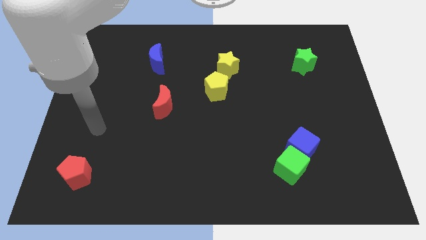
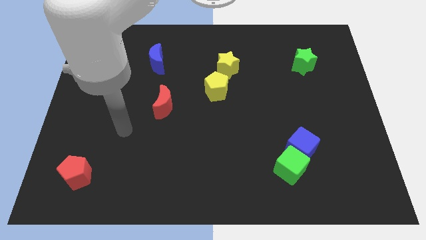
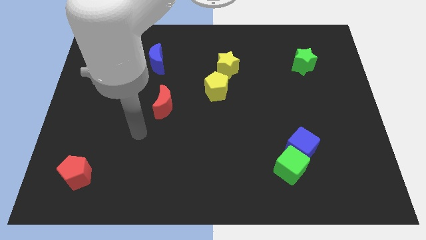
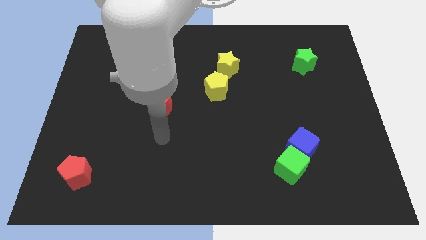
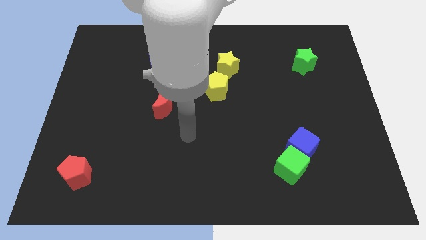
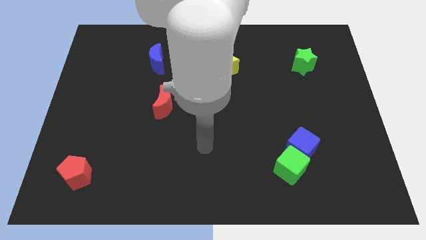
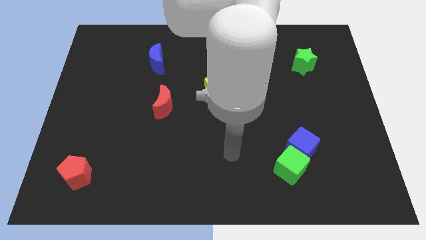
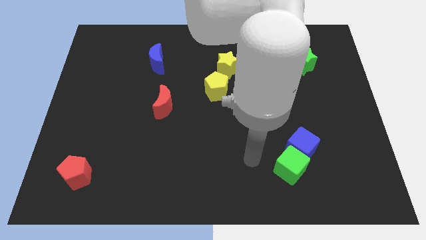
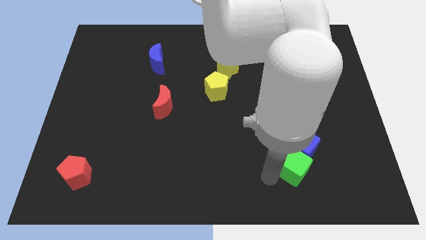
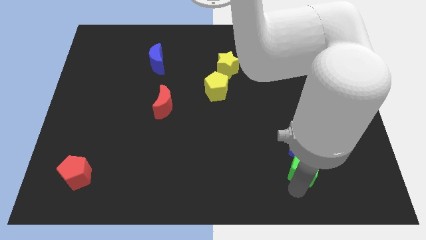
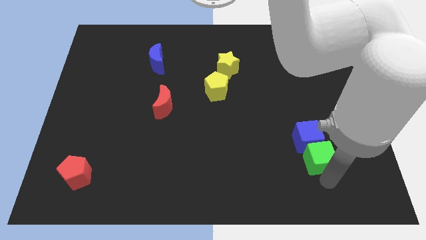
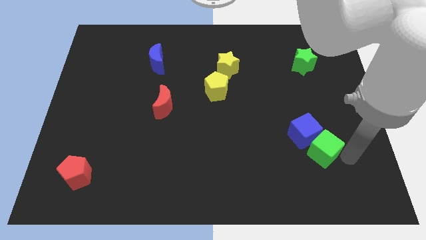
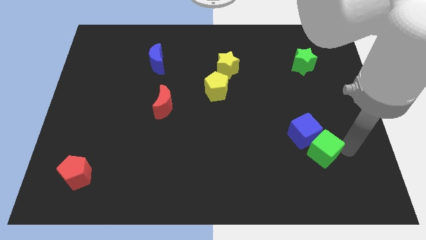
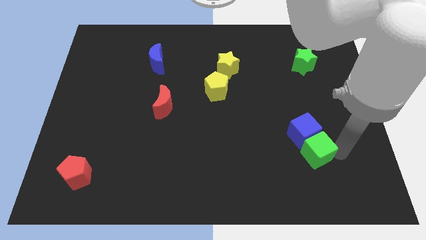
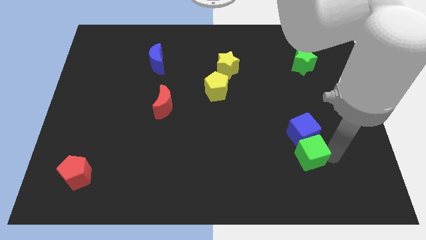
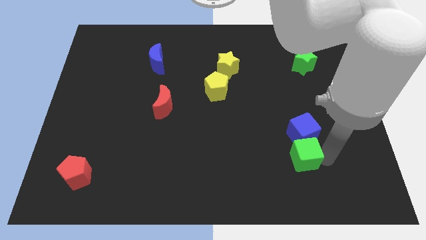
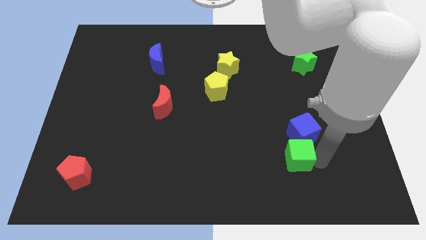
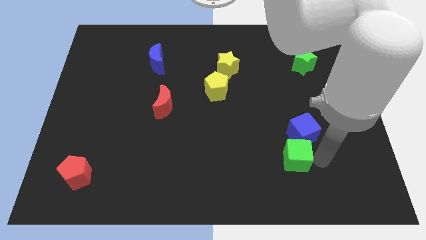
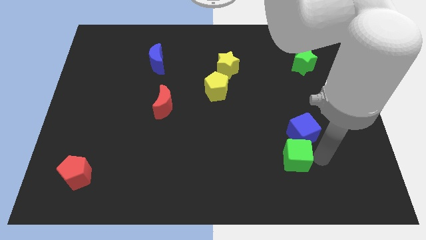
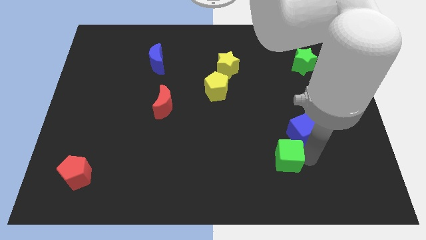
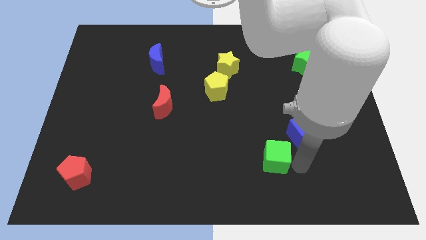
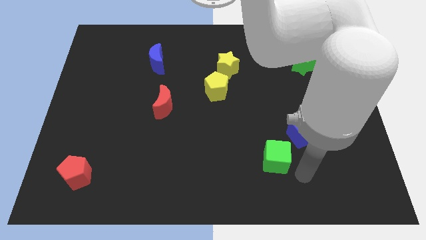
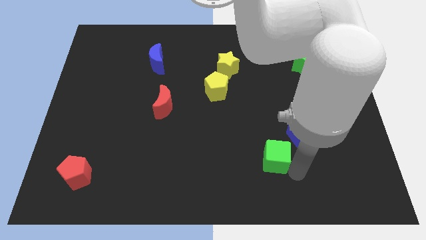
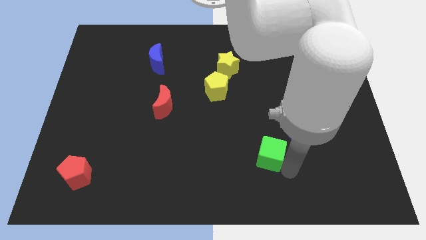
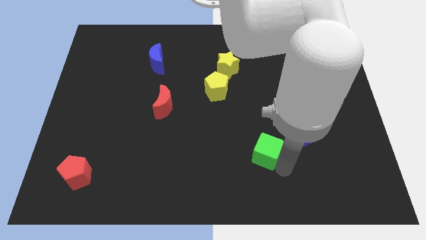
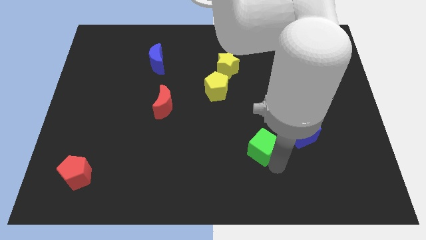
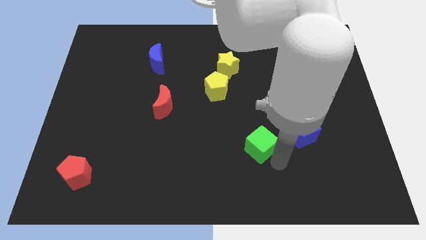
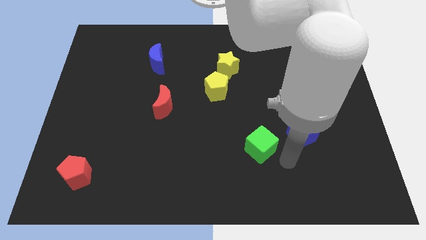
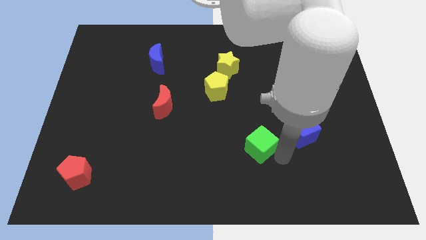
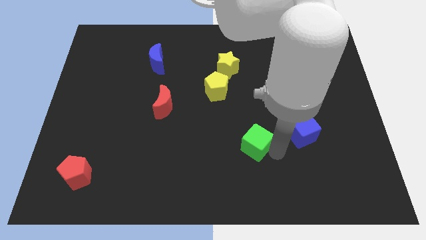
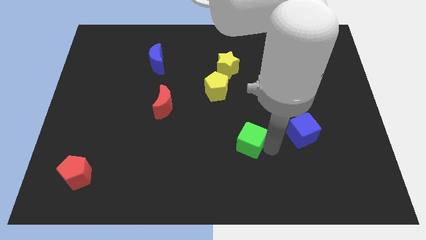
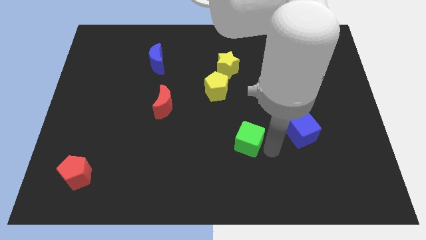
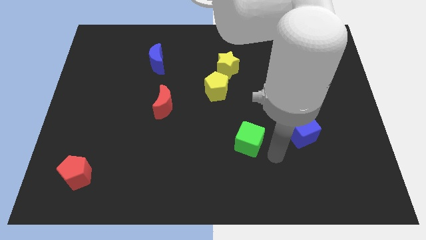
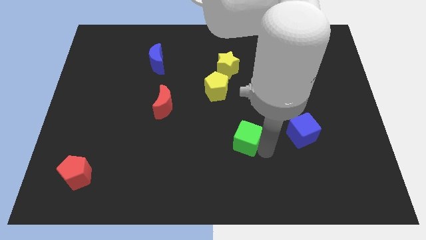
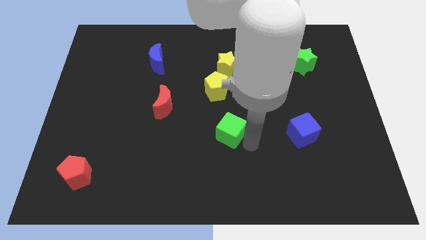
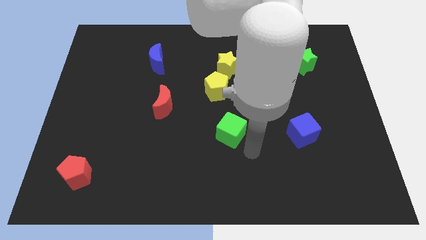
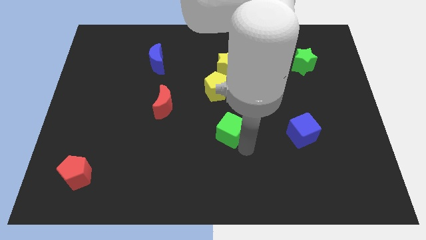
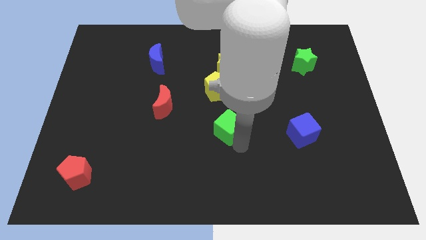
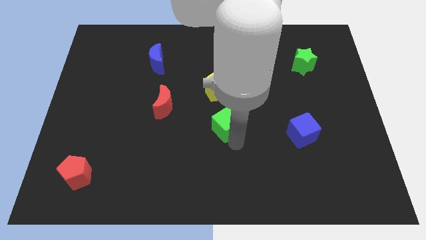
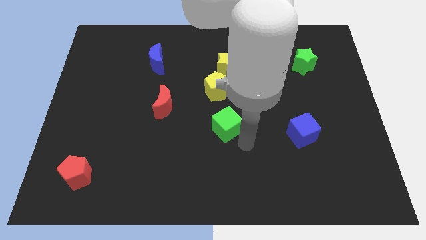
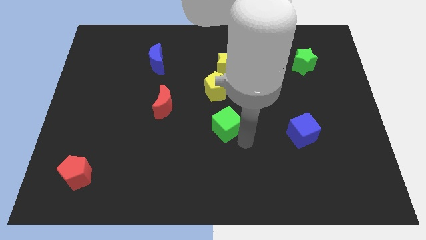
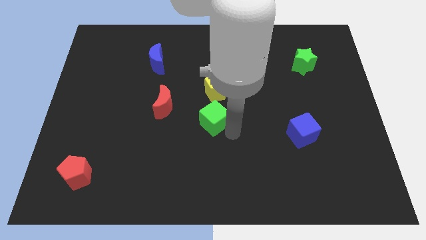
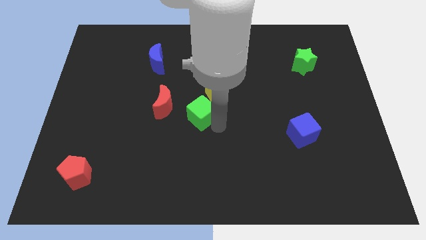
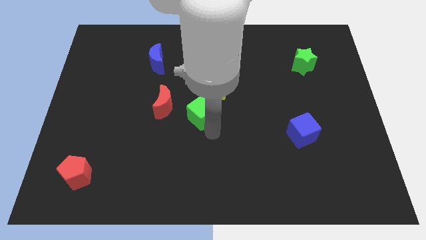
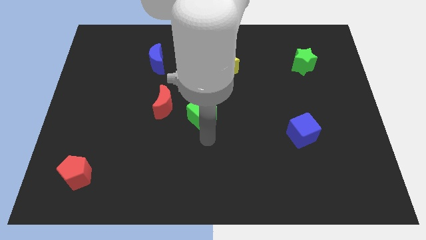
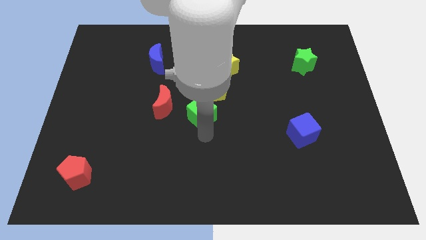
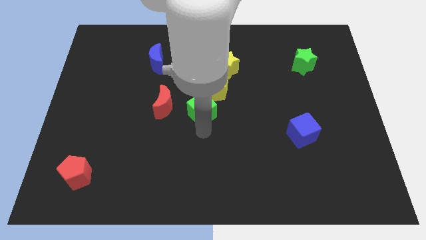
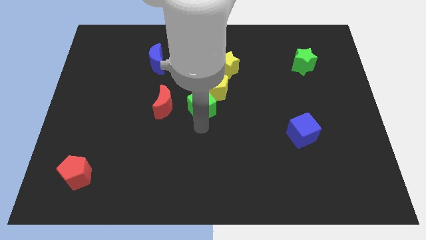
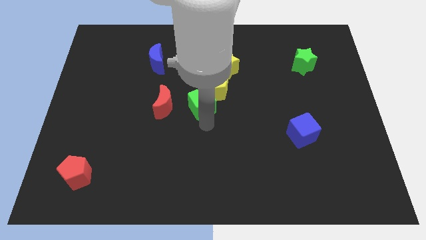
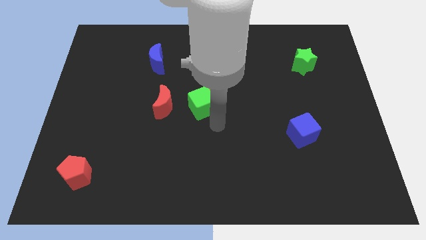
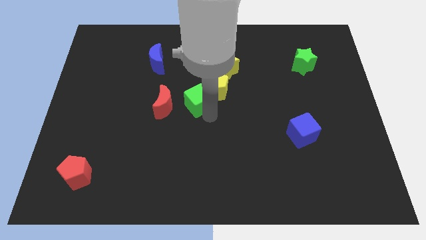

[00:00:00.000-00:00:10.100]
push the green cube to the top right side of the red moon

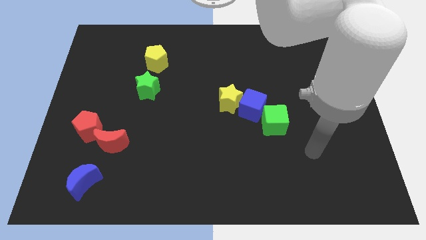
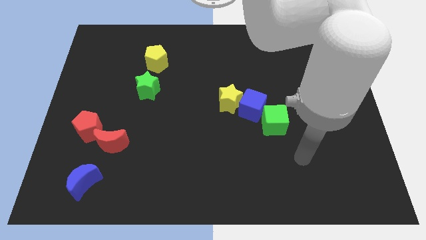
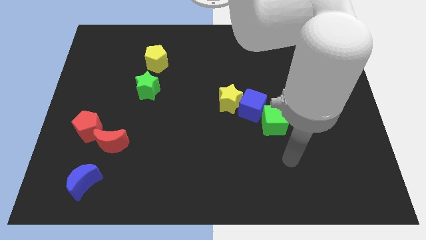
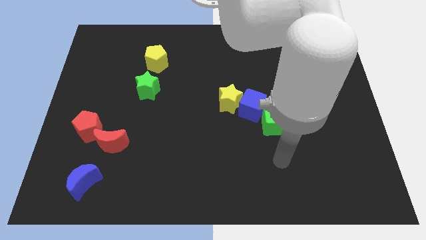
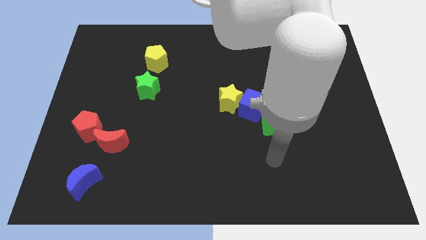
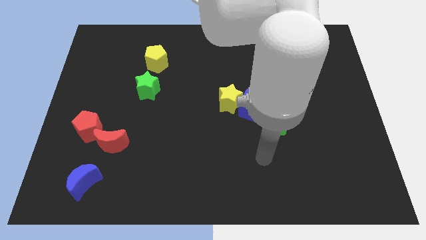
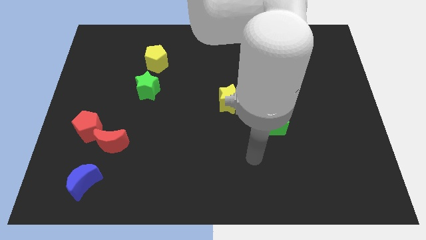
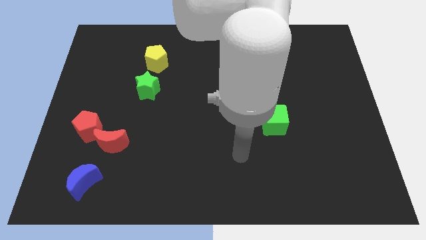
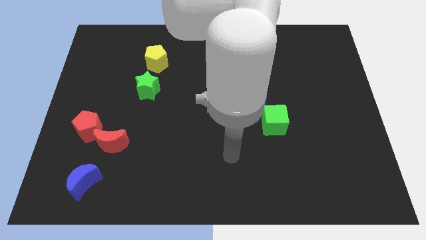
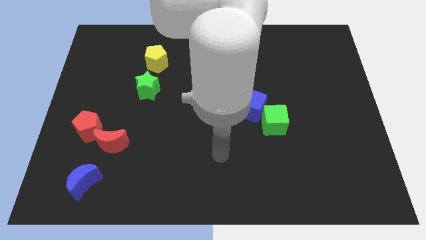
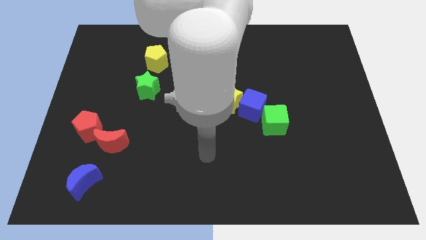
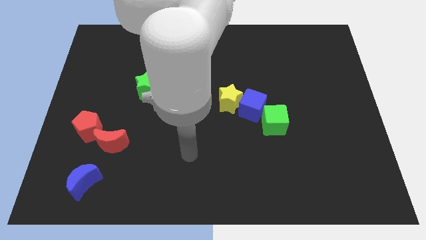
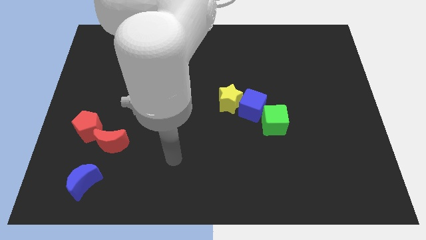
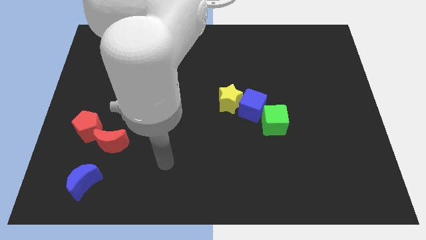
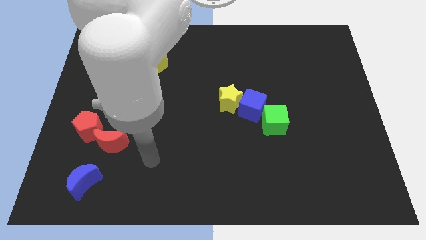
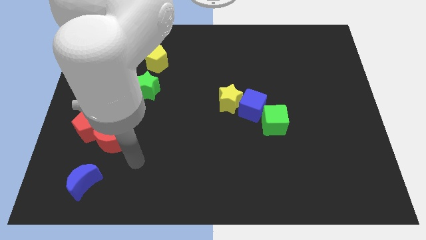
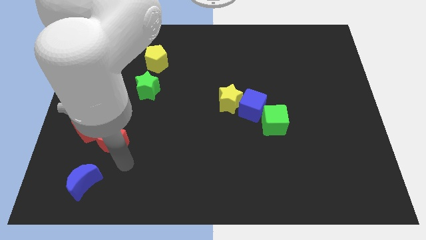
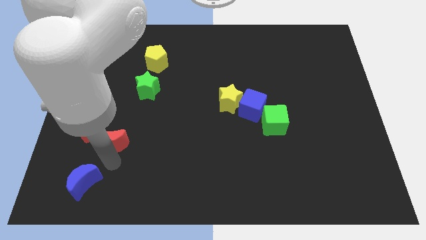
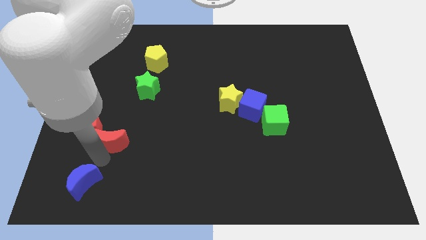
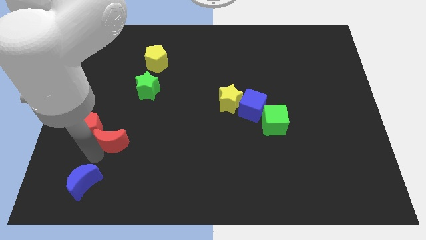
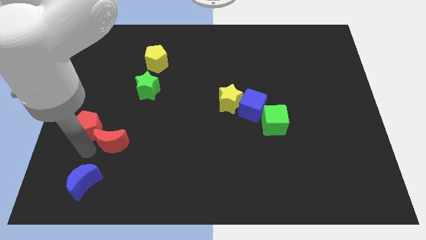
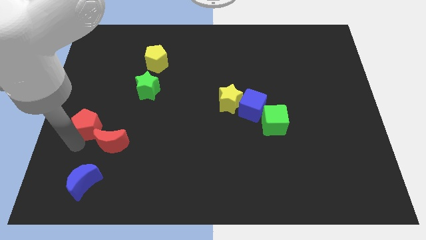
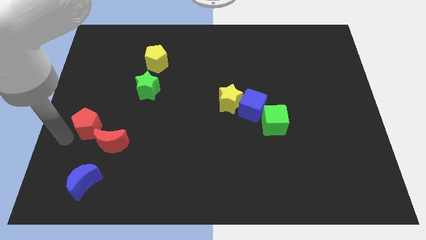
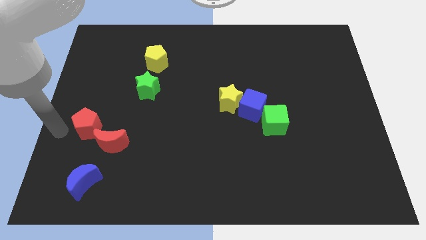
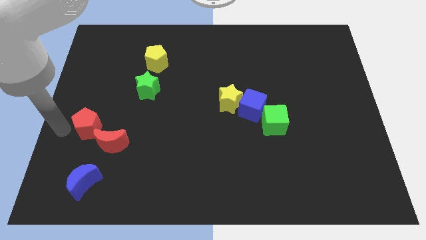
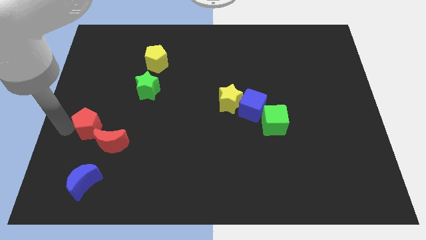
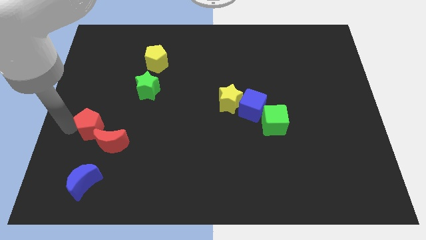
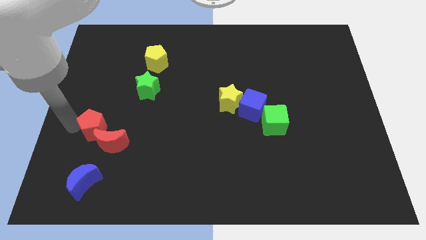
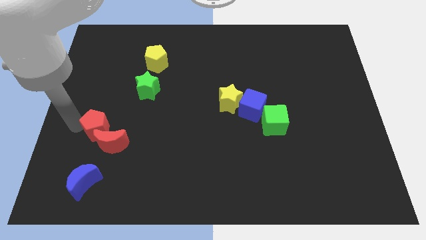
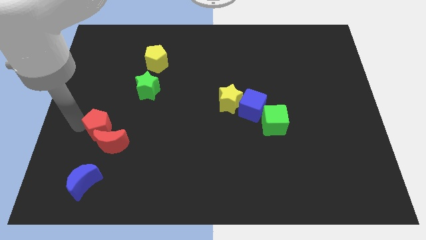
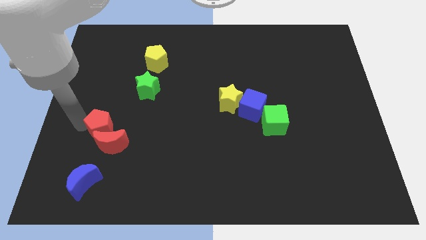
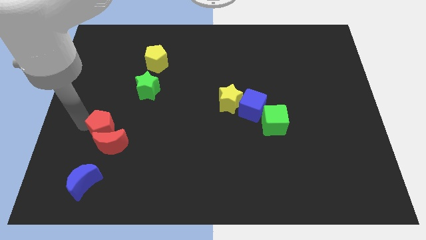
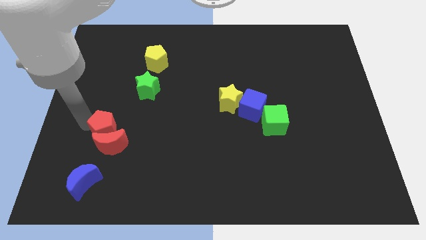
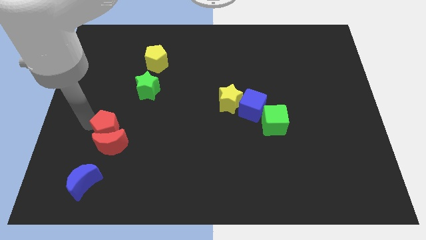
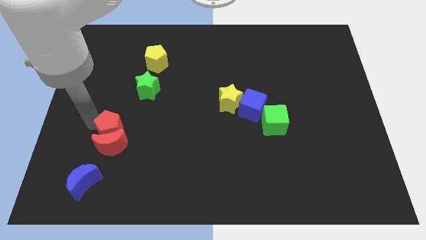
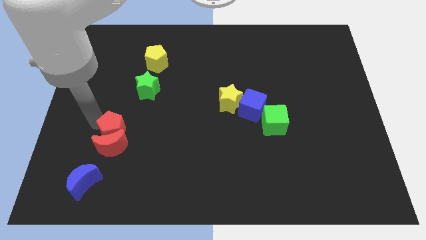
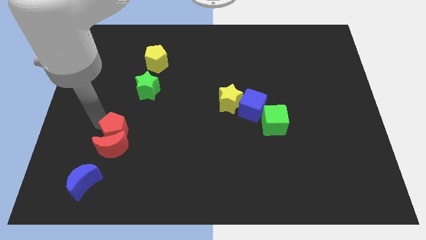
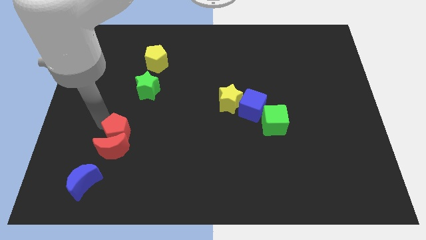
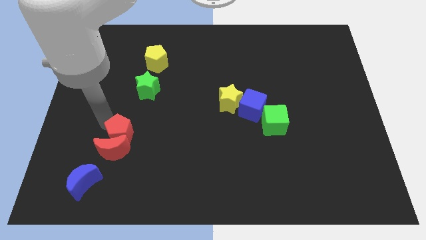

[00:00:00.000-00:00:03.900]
move the red pentagon below the green star
